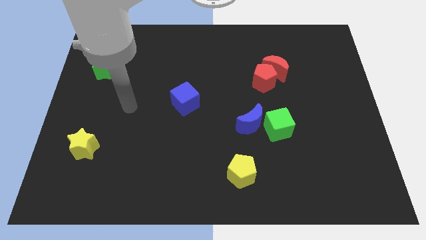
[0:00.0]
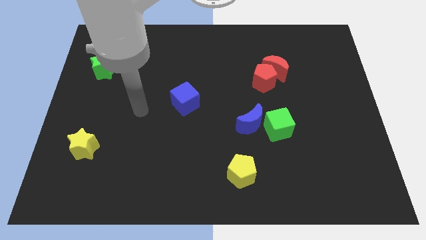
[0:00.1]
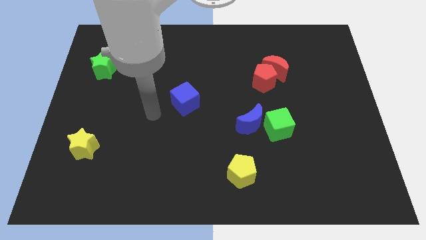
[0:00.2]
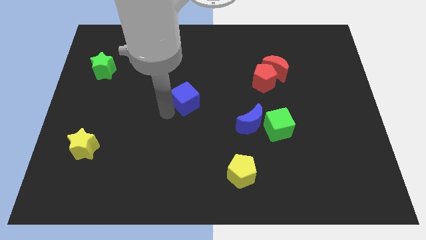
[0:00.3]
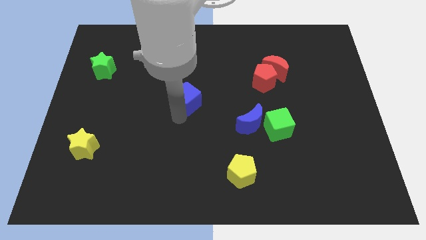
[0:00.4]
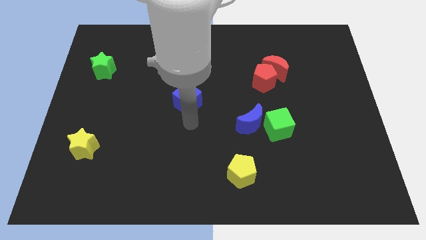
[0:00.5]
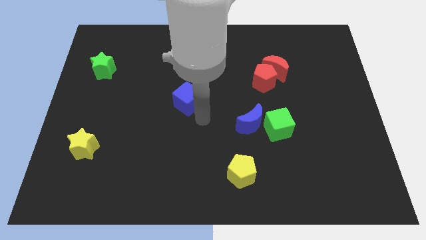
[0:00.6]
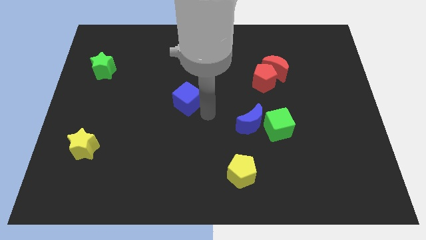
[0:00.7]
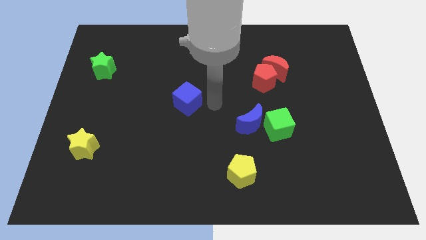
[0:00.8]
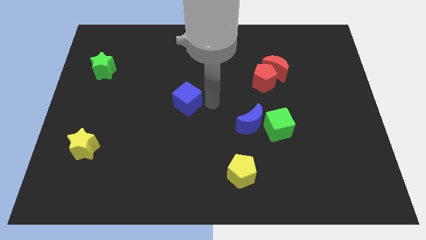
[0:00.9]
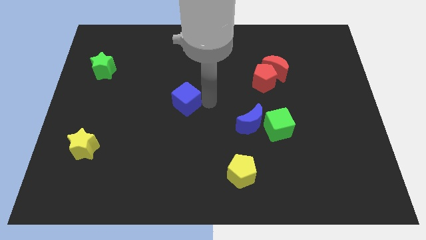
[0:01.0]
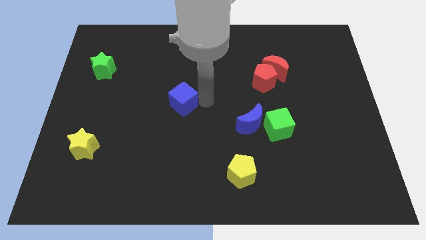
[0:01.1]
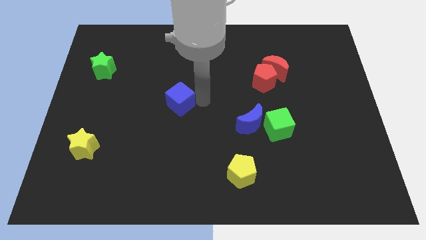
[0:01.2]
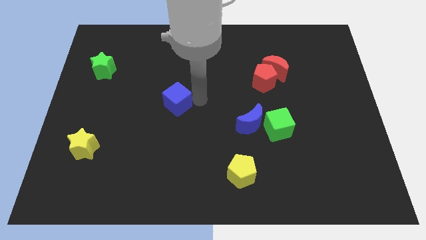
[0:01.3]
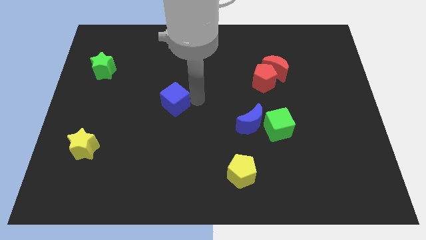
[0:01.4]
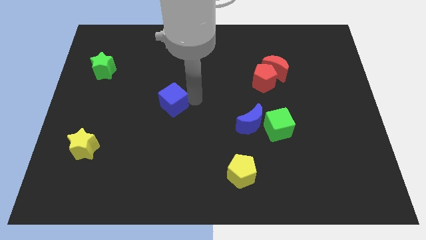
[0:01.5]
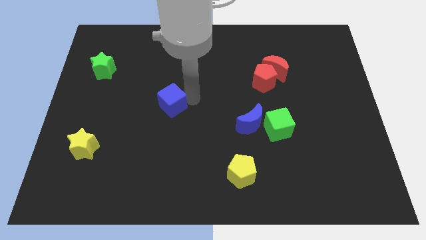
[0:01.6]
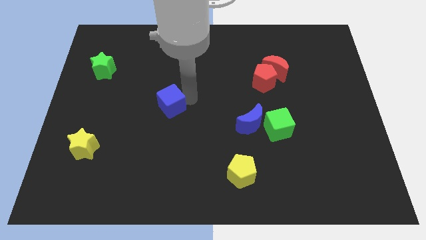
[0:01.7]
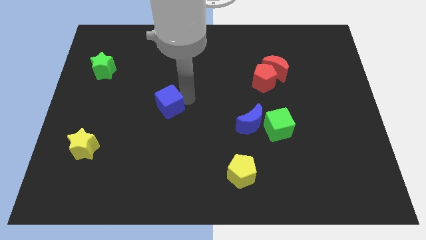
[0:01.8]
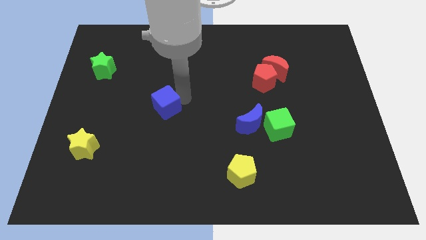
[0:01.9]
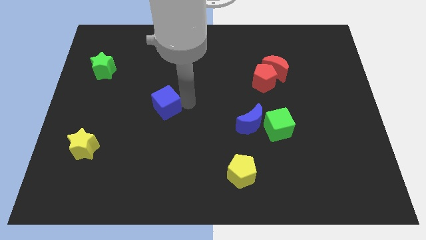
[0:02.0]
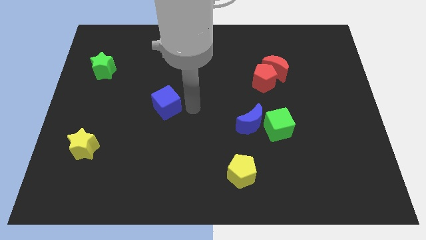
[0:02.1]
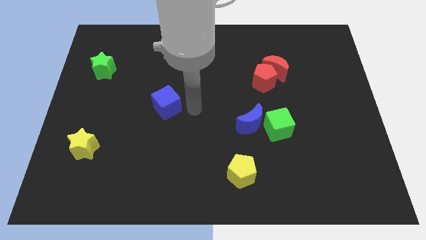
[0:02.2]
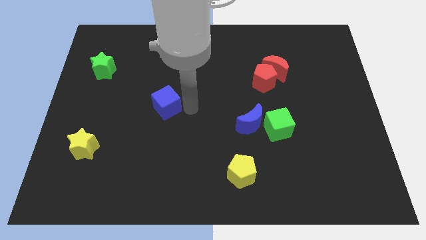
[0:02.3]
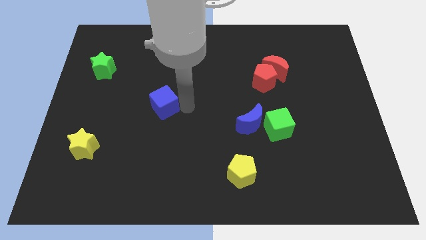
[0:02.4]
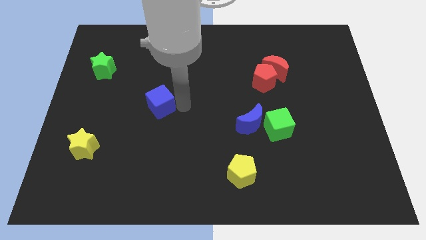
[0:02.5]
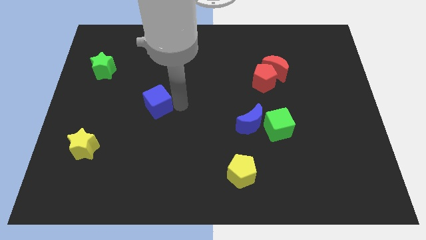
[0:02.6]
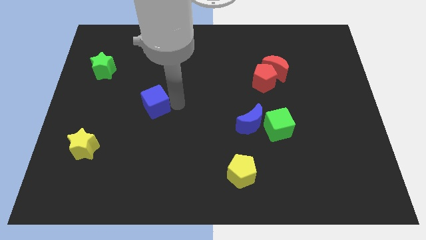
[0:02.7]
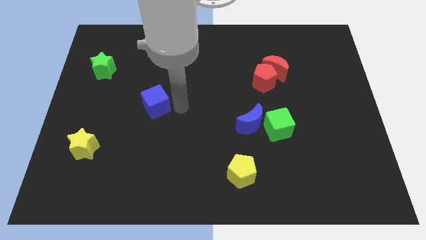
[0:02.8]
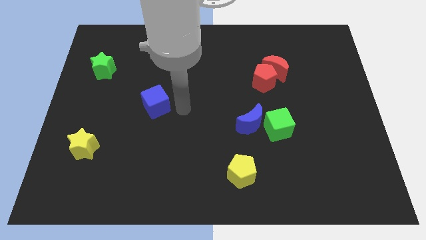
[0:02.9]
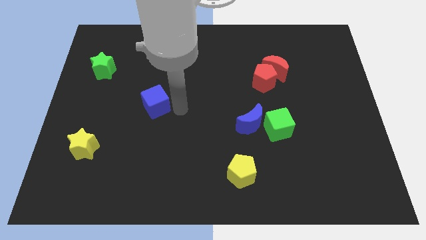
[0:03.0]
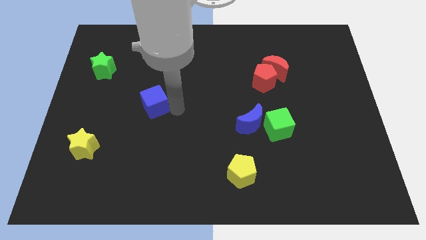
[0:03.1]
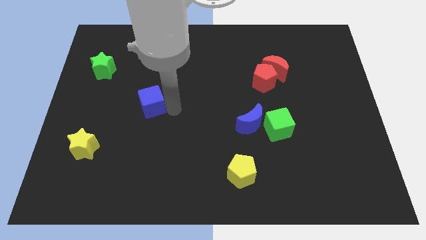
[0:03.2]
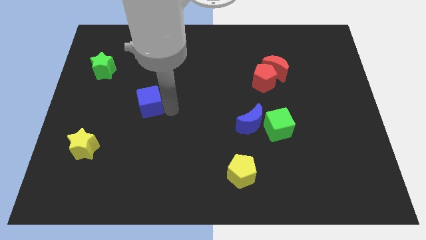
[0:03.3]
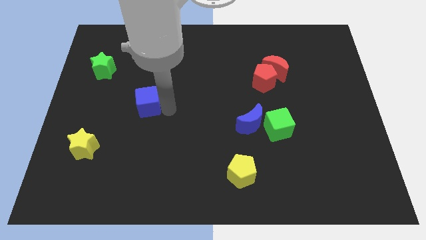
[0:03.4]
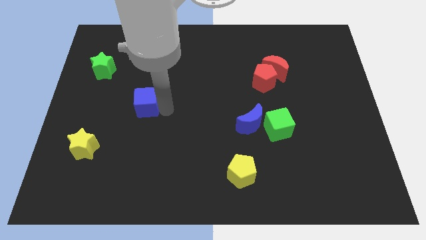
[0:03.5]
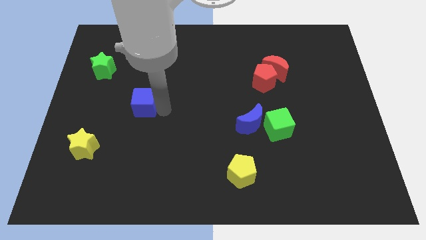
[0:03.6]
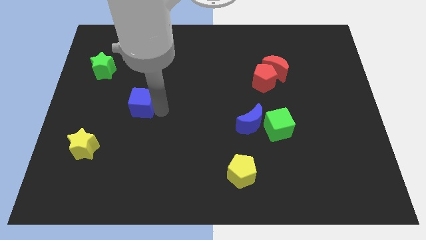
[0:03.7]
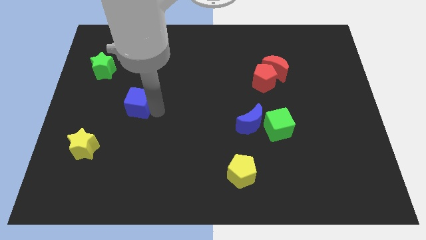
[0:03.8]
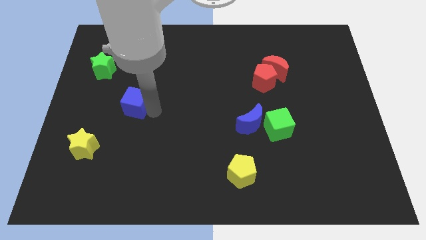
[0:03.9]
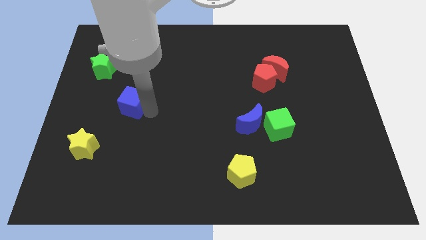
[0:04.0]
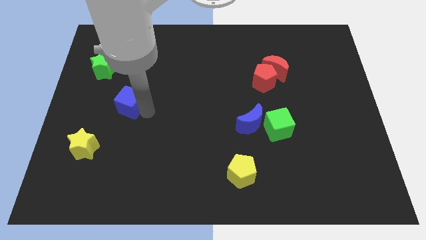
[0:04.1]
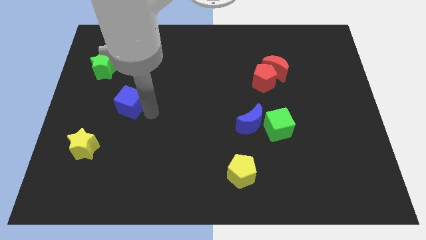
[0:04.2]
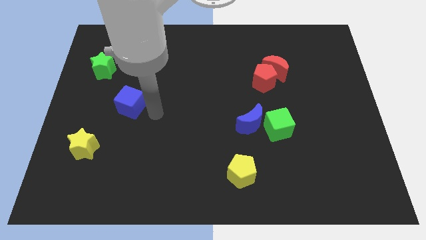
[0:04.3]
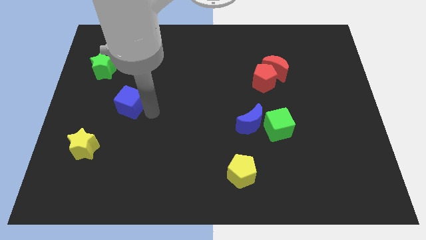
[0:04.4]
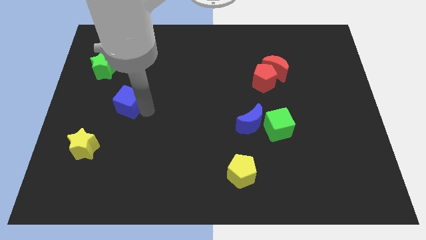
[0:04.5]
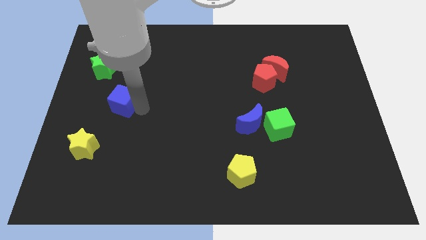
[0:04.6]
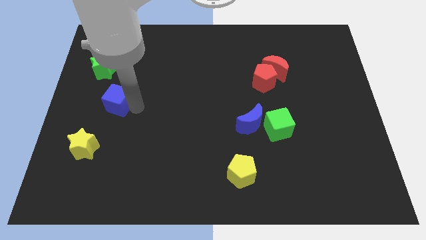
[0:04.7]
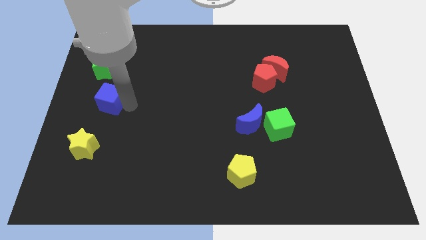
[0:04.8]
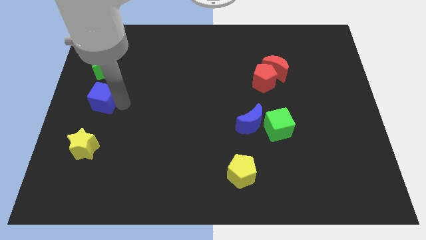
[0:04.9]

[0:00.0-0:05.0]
put the blue cube to the left side

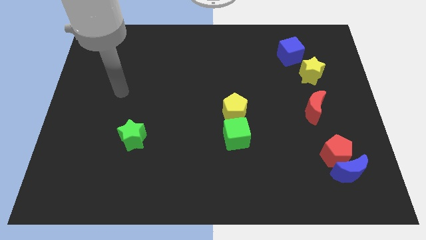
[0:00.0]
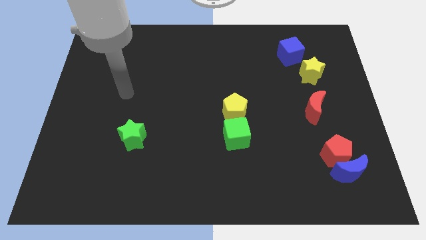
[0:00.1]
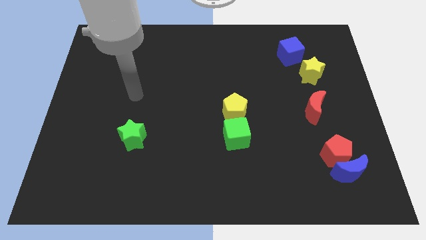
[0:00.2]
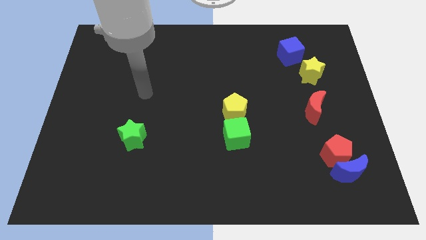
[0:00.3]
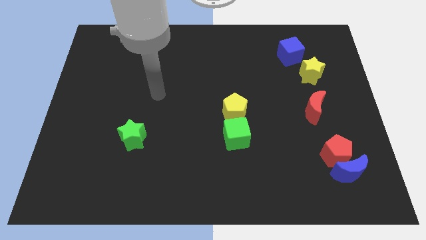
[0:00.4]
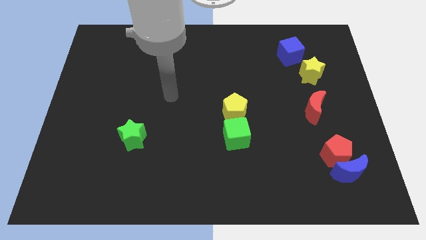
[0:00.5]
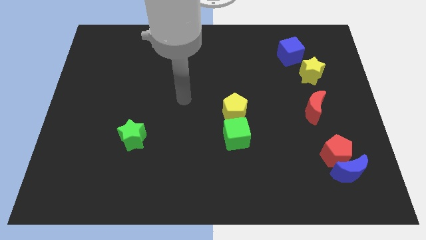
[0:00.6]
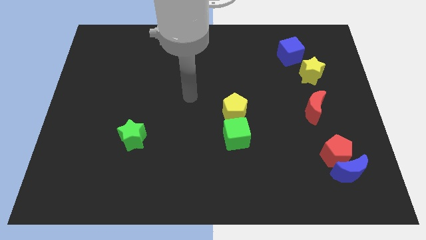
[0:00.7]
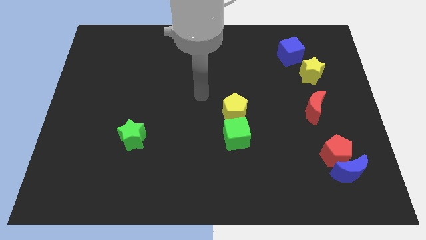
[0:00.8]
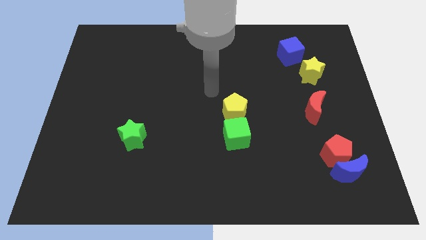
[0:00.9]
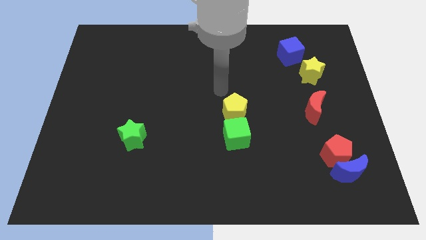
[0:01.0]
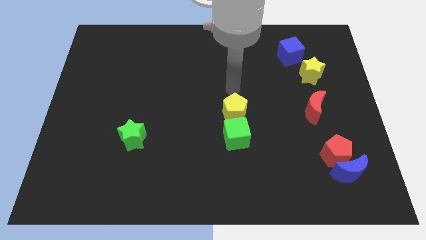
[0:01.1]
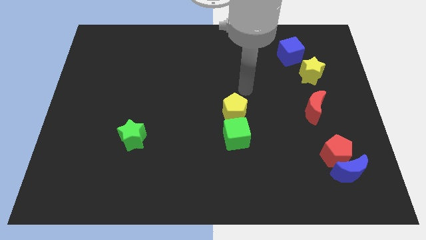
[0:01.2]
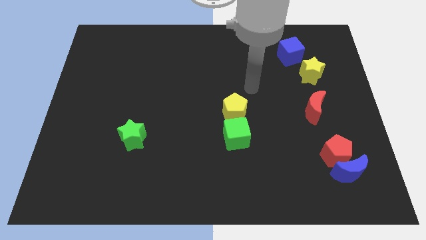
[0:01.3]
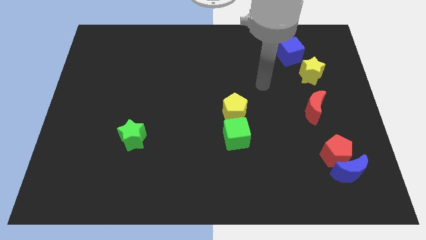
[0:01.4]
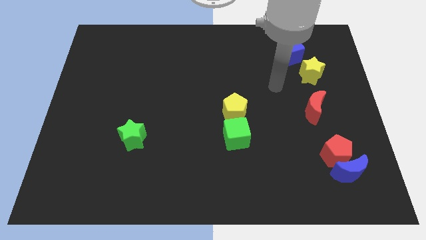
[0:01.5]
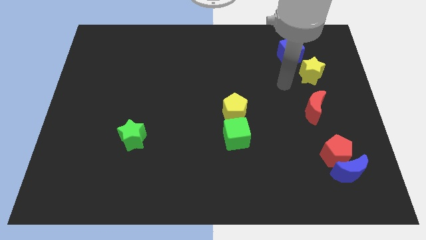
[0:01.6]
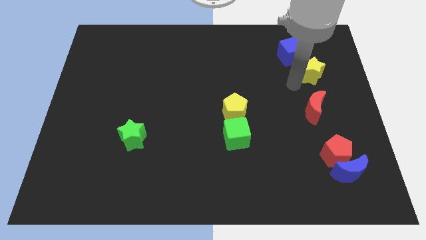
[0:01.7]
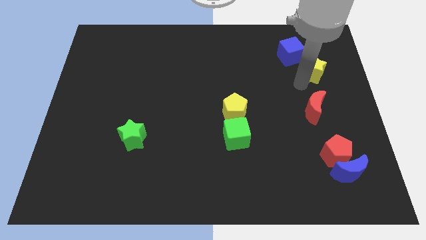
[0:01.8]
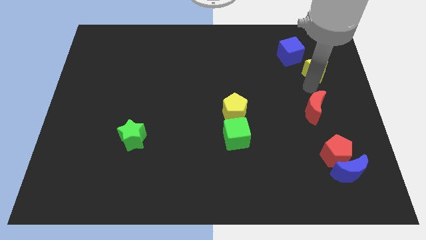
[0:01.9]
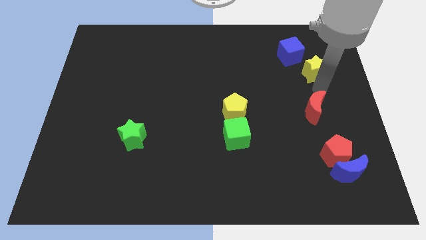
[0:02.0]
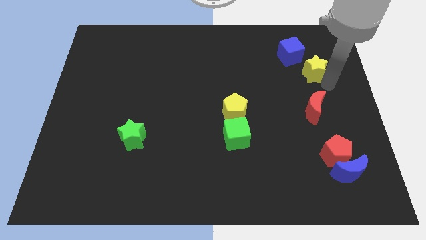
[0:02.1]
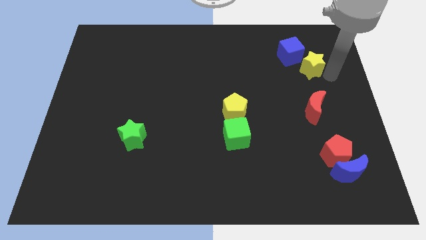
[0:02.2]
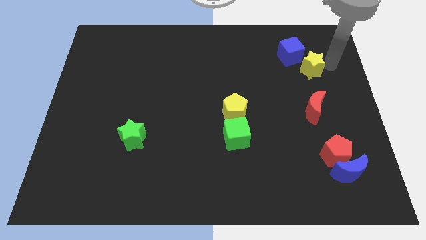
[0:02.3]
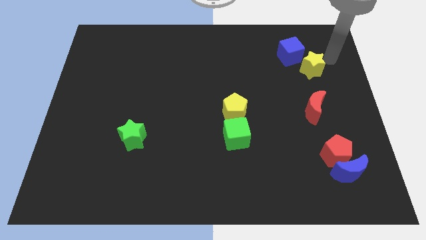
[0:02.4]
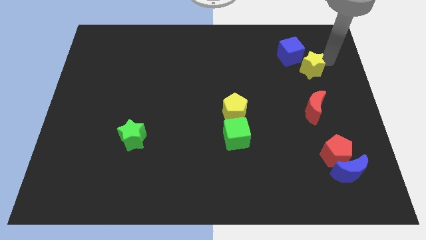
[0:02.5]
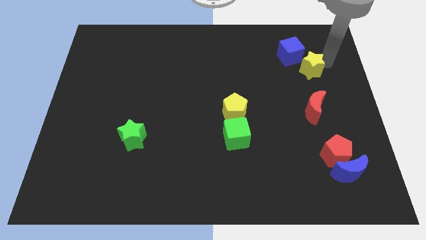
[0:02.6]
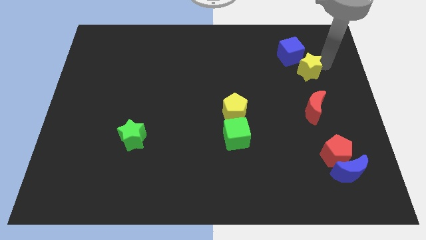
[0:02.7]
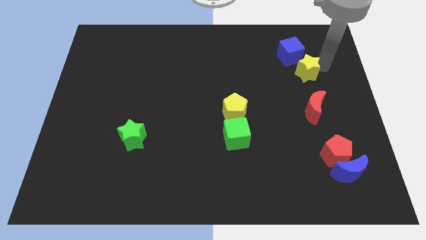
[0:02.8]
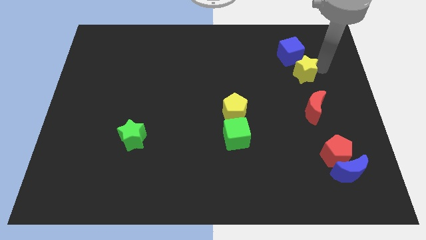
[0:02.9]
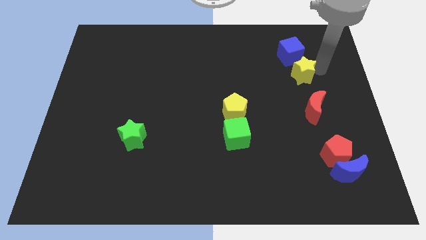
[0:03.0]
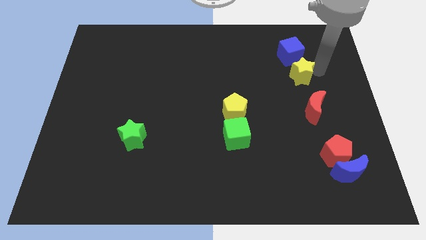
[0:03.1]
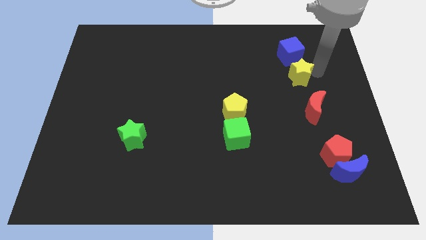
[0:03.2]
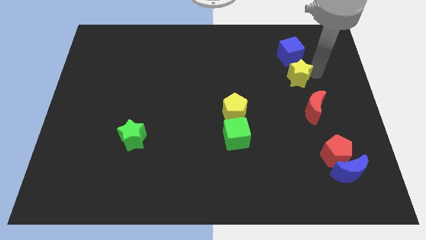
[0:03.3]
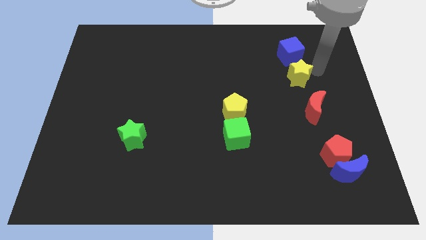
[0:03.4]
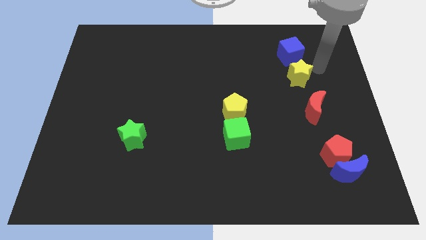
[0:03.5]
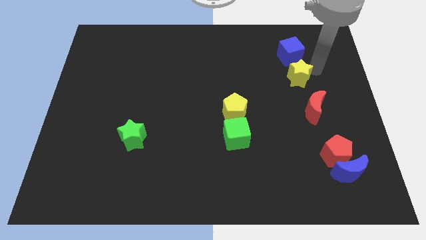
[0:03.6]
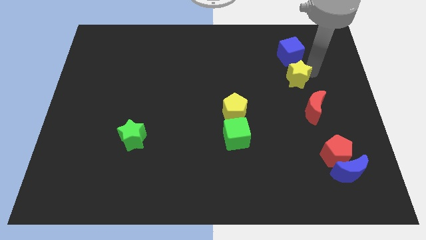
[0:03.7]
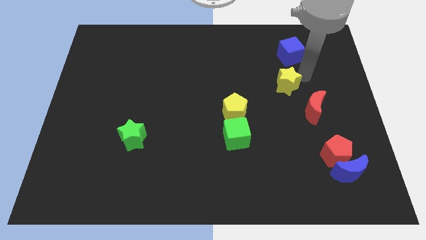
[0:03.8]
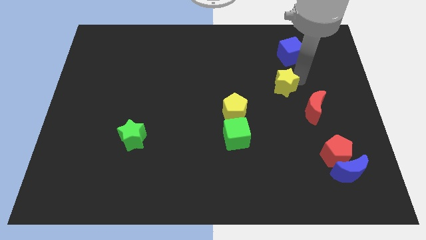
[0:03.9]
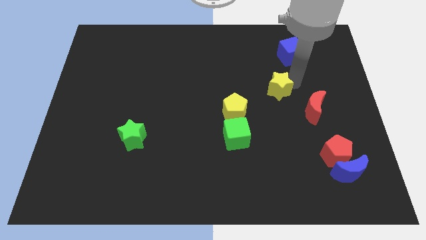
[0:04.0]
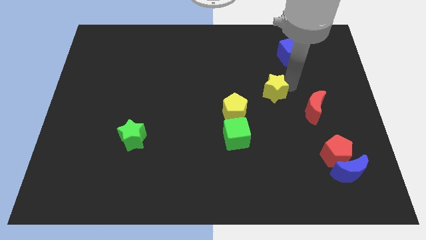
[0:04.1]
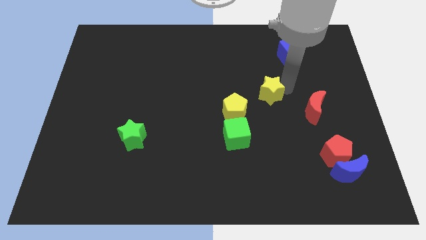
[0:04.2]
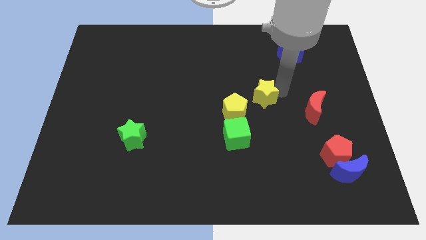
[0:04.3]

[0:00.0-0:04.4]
move the yellow star to the middle of the board
